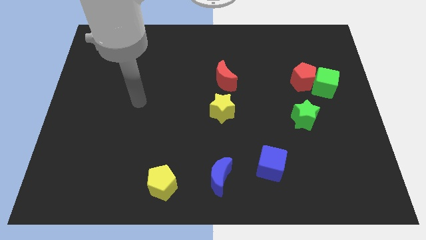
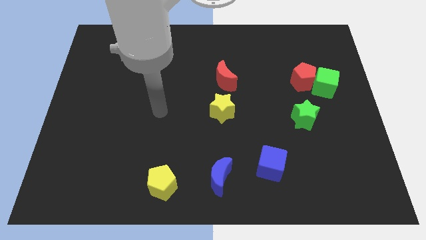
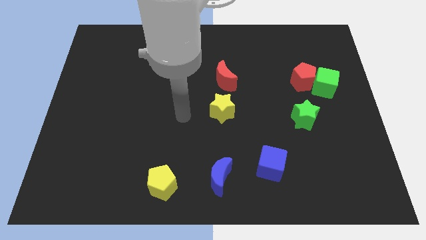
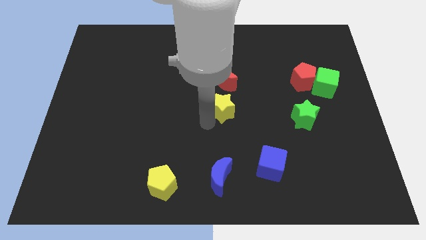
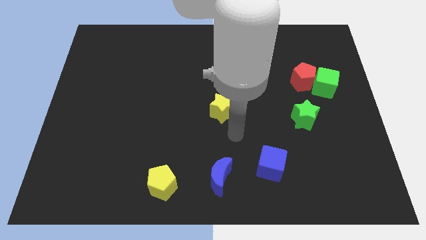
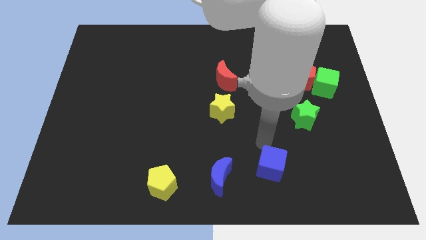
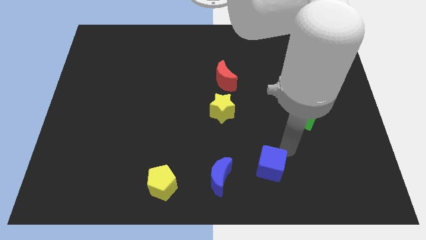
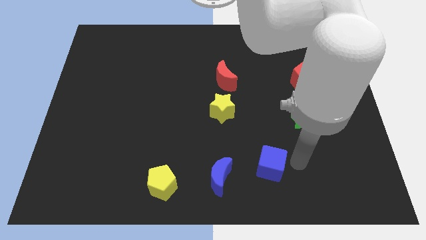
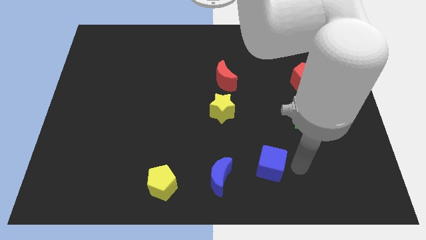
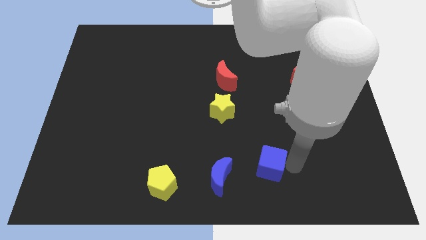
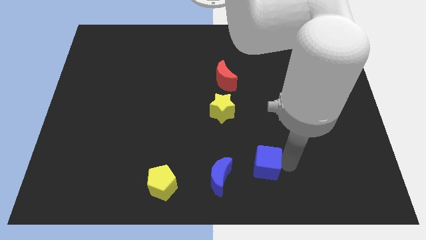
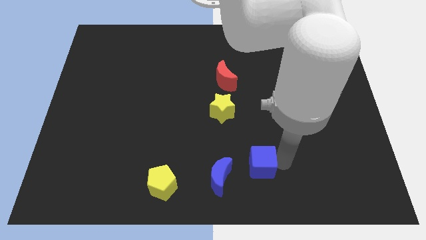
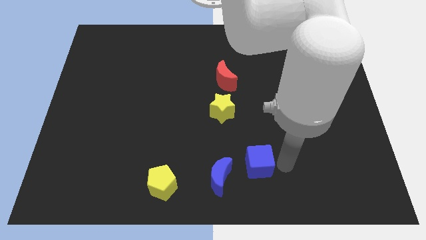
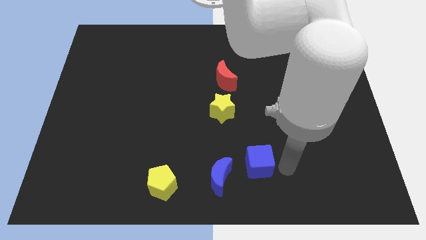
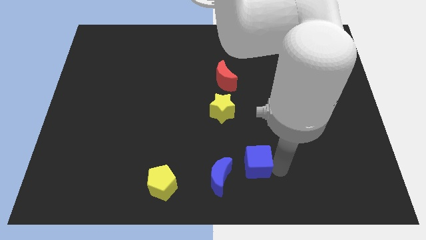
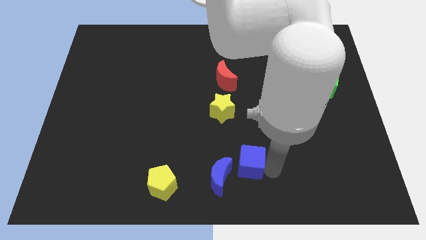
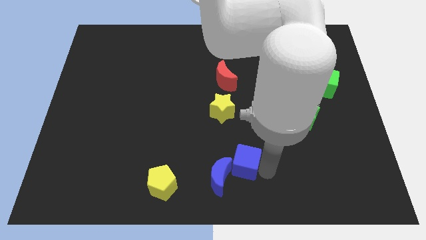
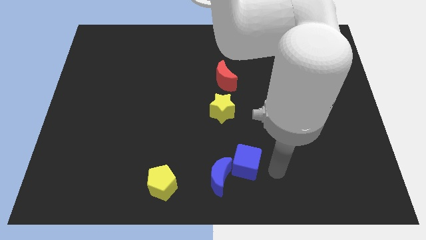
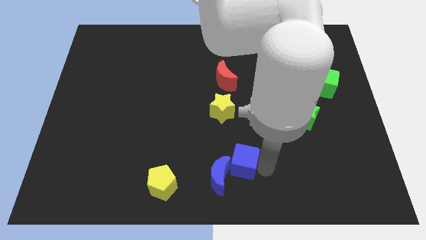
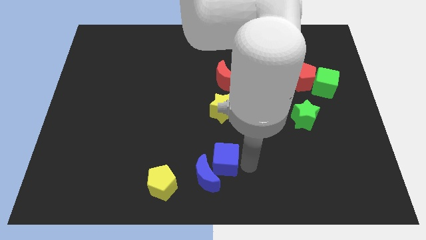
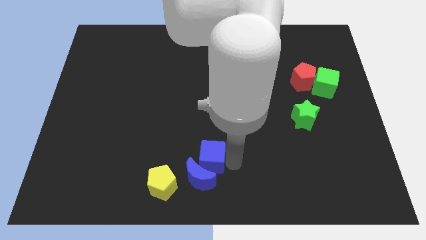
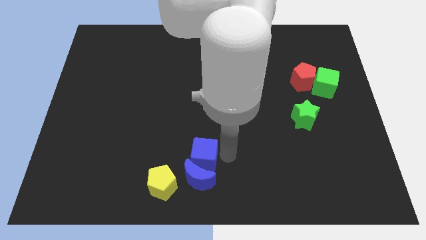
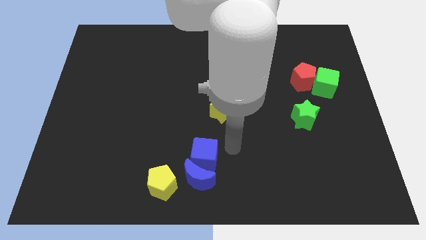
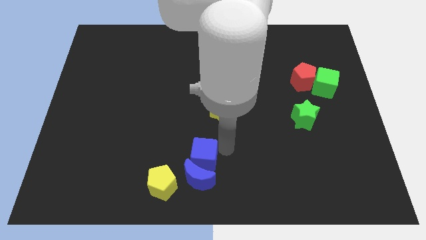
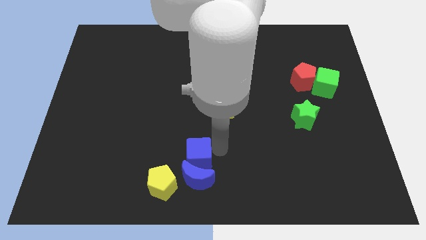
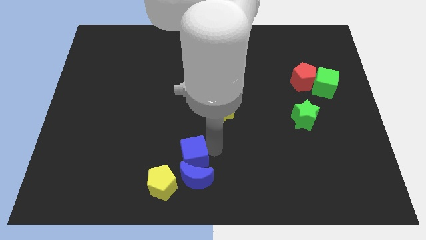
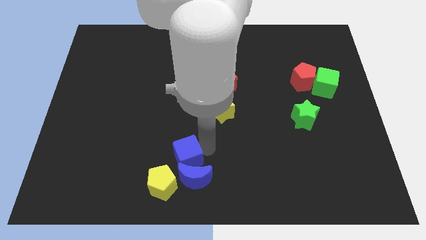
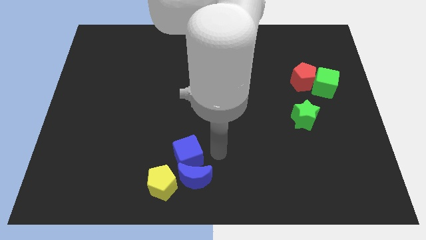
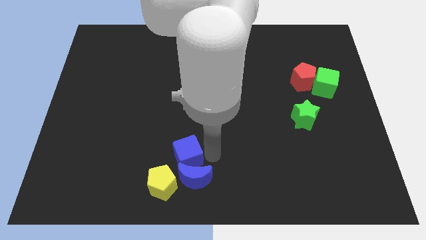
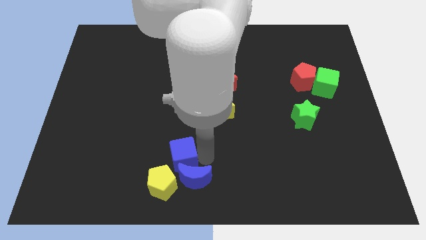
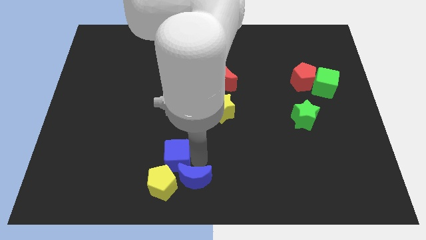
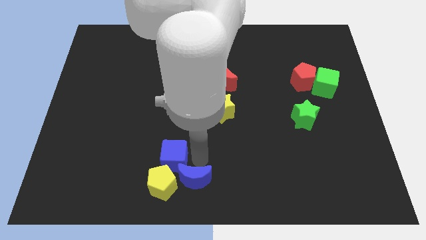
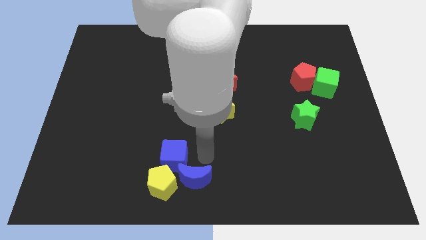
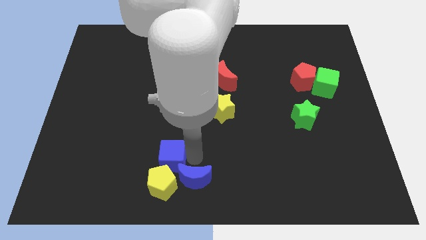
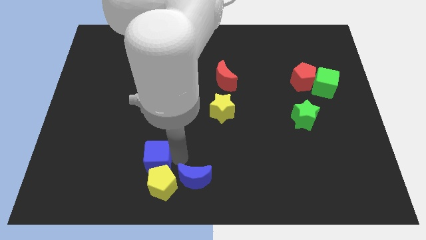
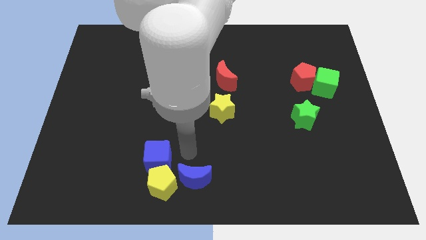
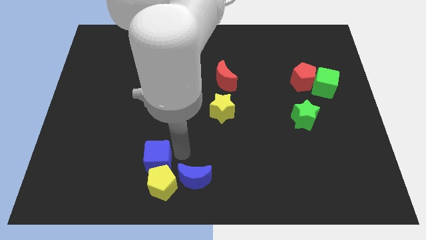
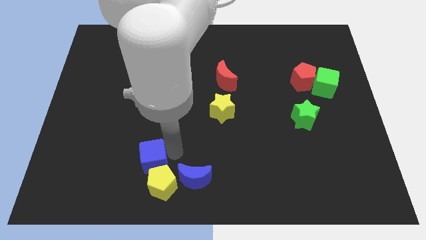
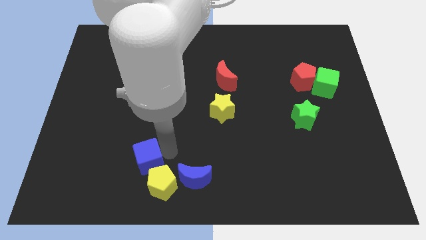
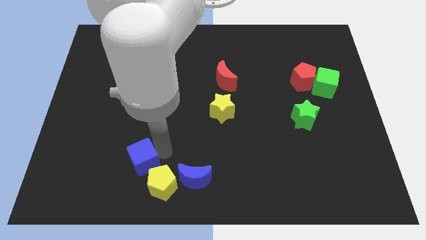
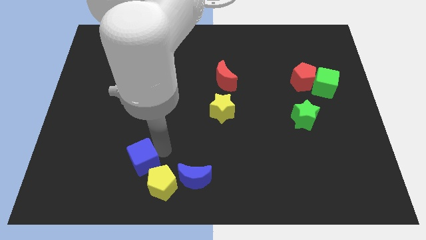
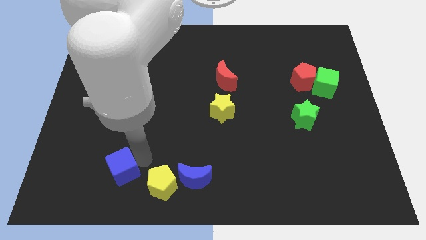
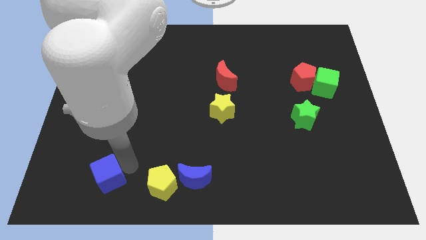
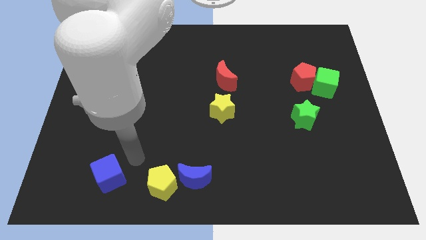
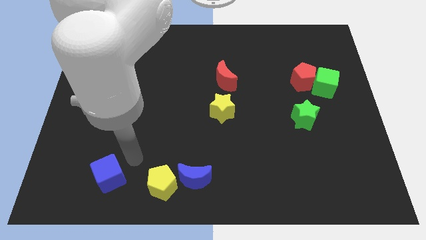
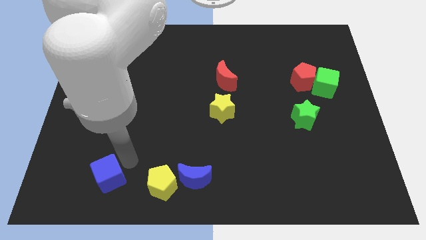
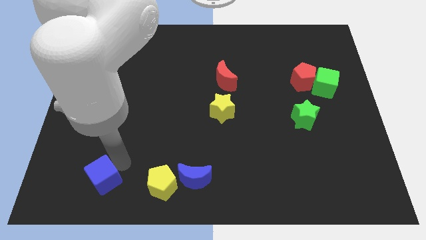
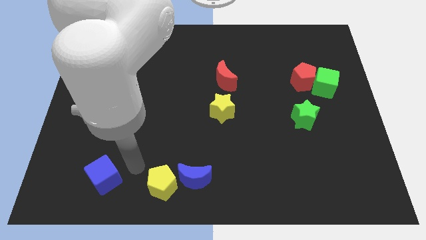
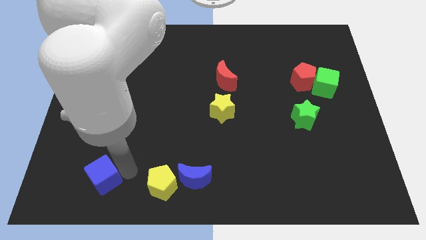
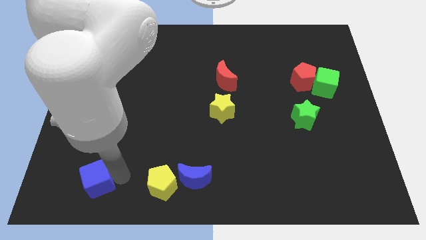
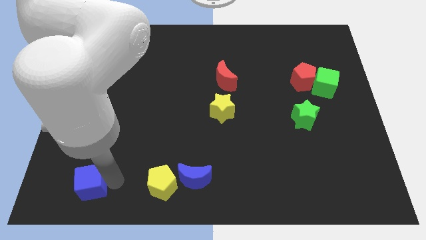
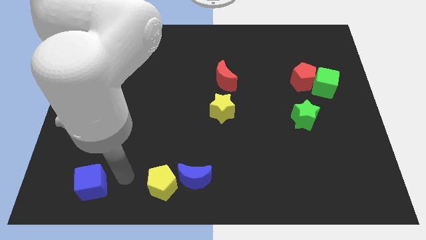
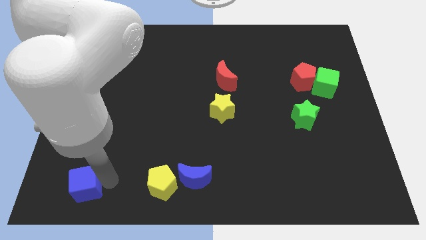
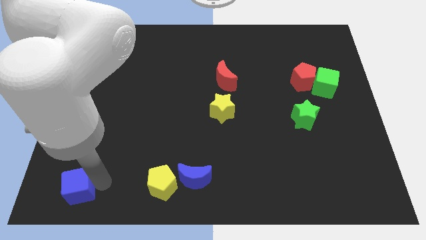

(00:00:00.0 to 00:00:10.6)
slide the blue cube to the bottom left of the board

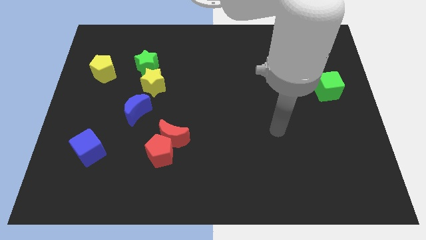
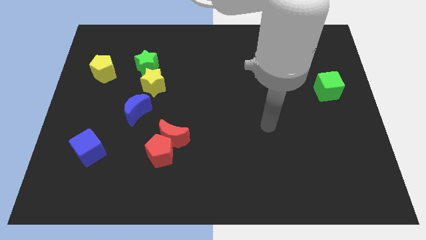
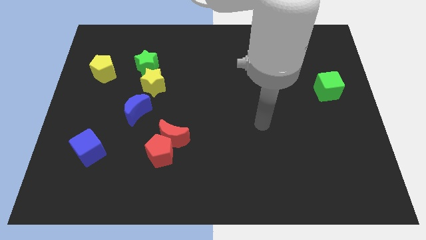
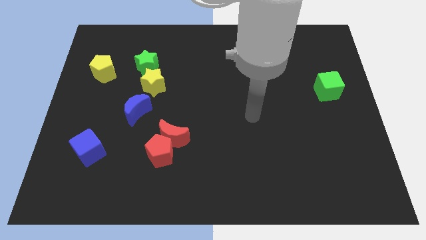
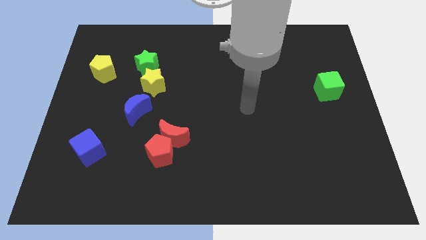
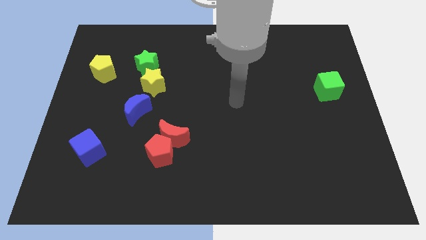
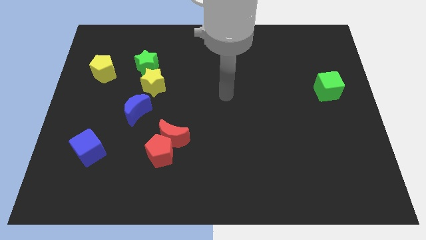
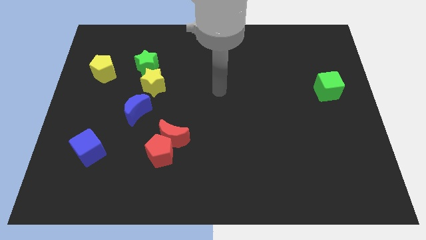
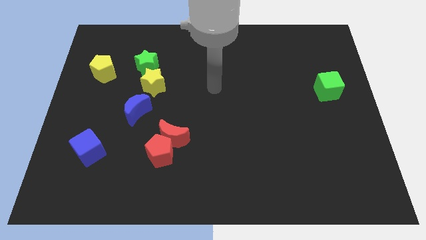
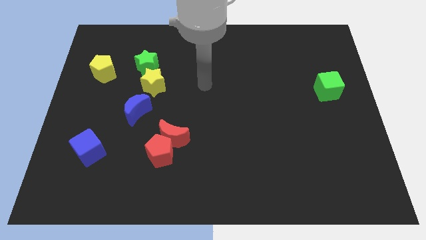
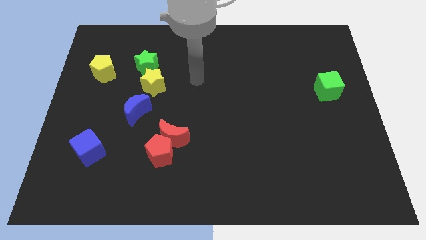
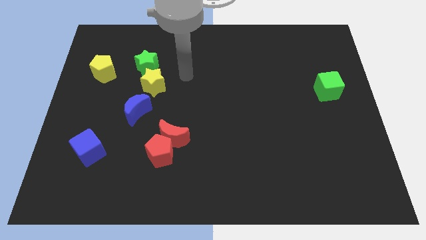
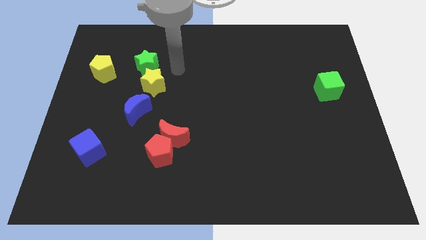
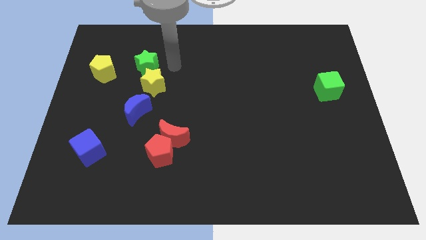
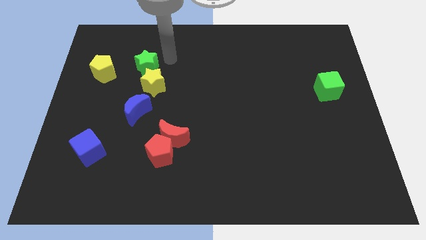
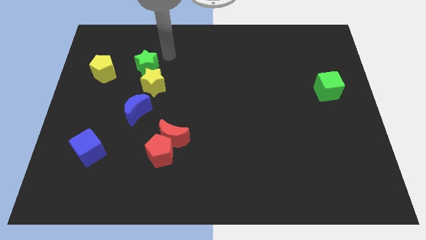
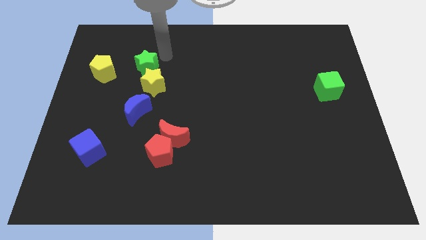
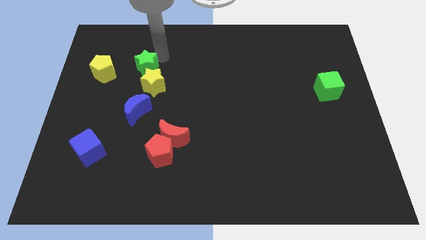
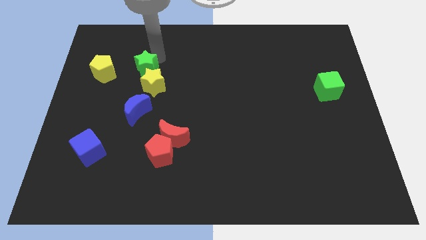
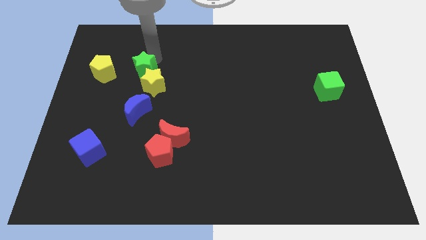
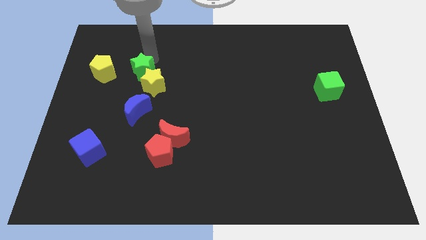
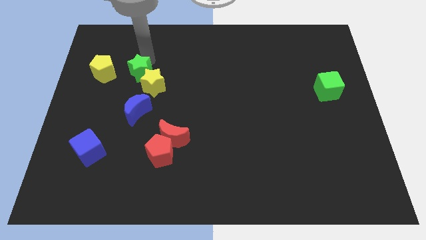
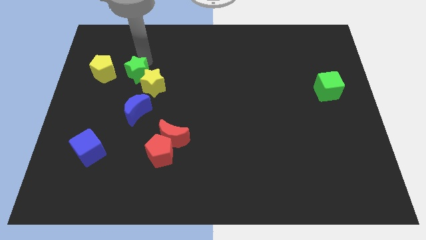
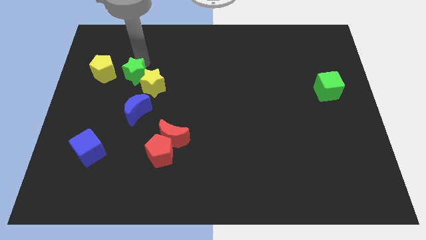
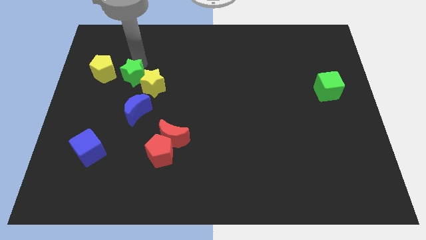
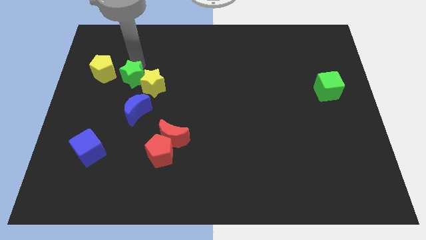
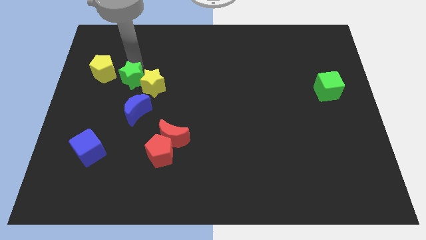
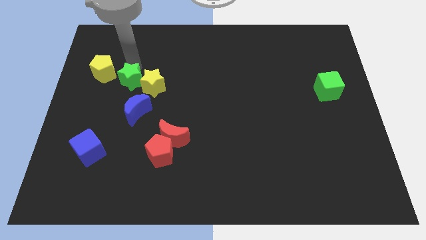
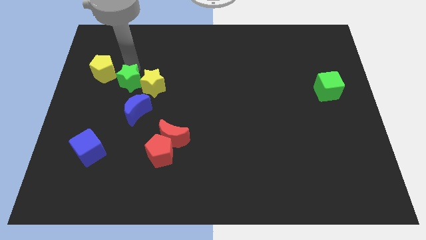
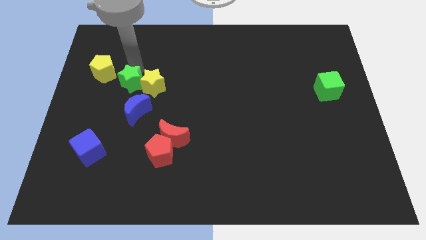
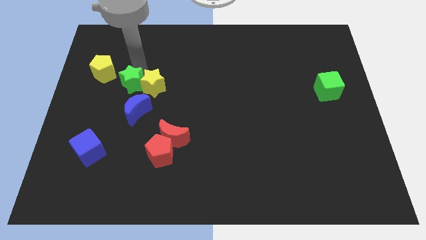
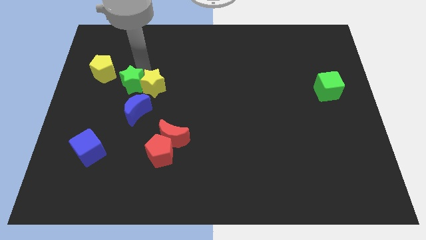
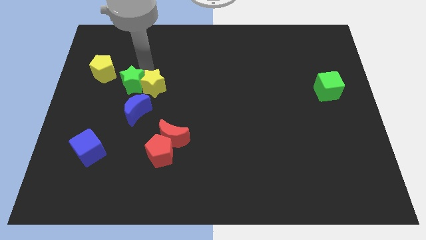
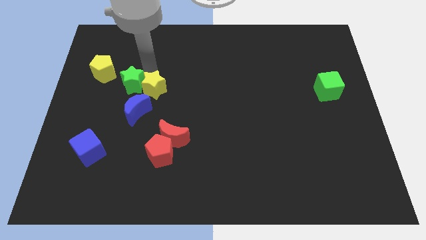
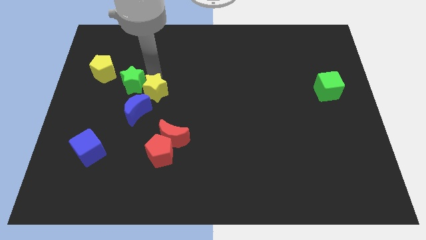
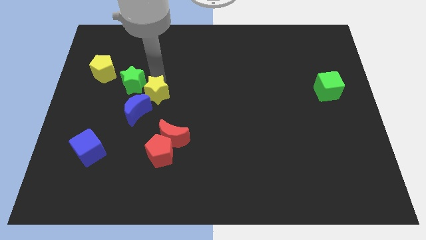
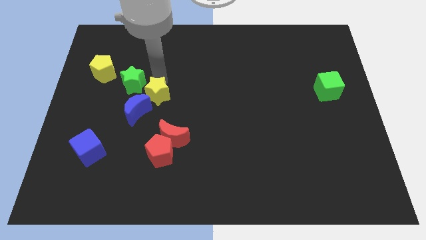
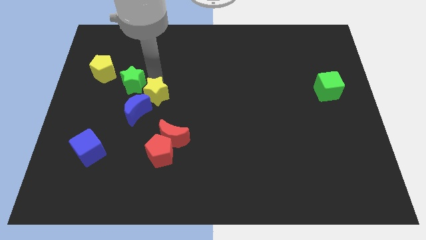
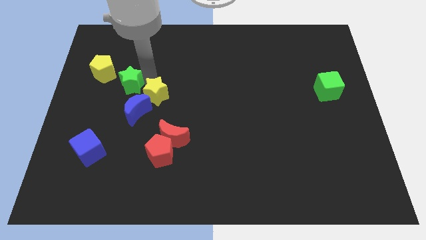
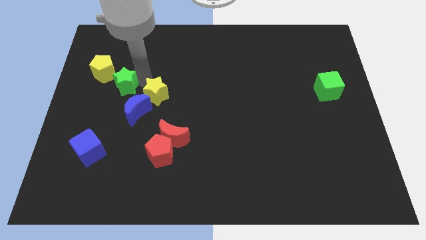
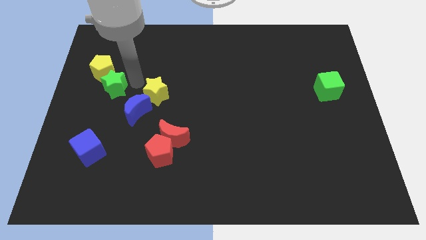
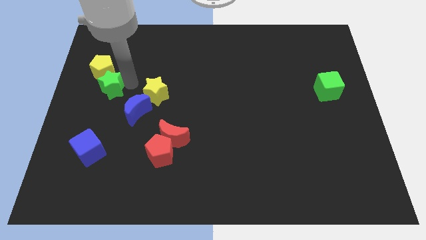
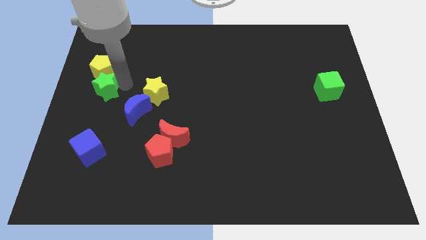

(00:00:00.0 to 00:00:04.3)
slide the green star to the center left
